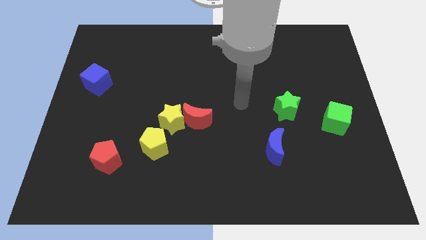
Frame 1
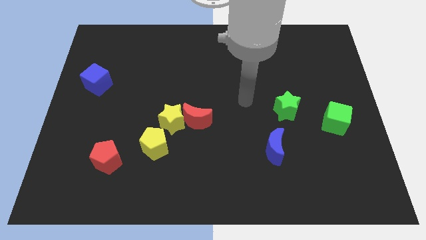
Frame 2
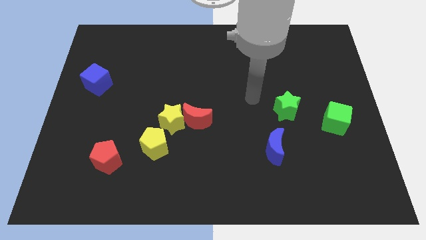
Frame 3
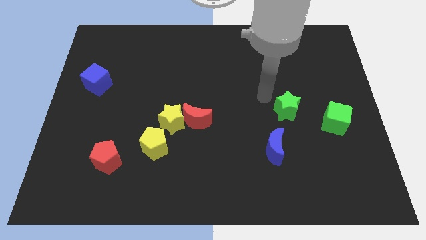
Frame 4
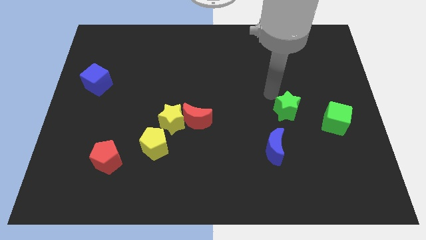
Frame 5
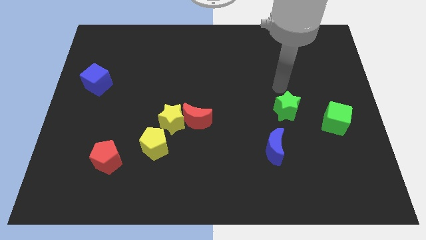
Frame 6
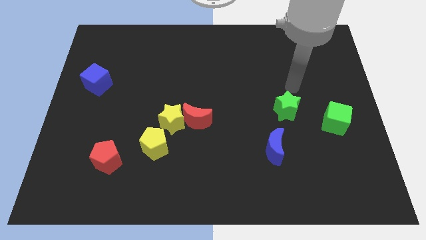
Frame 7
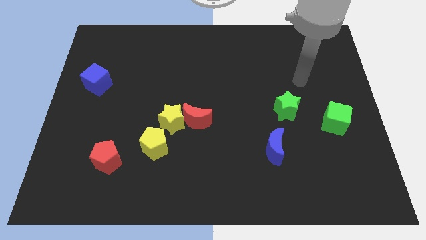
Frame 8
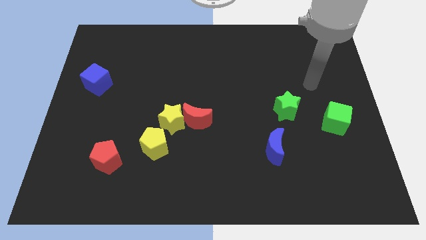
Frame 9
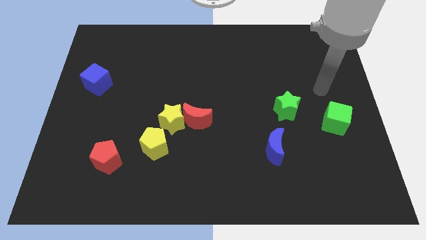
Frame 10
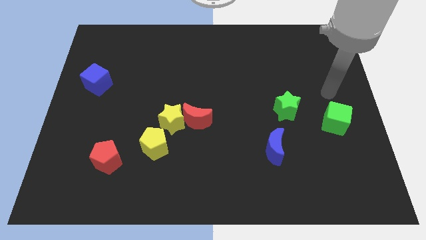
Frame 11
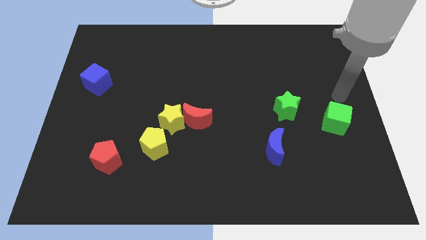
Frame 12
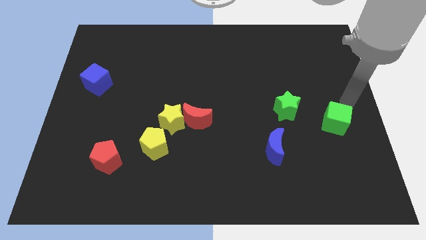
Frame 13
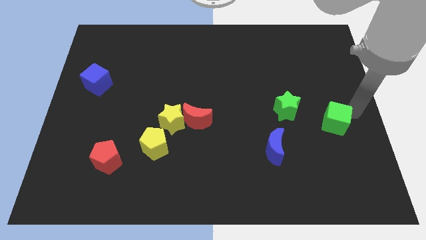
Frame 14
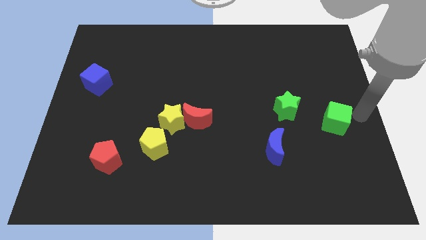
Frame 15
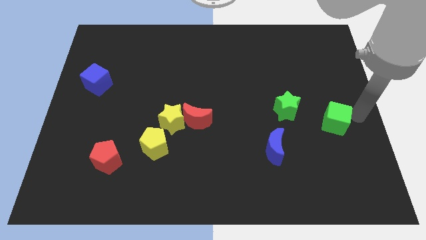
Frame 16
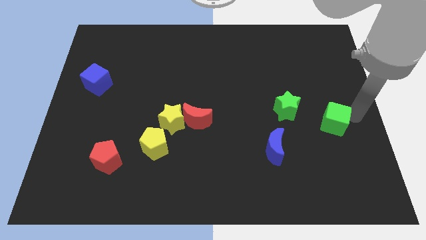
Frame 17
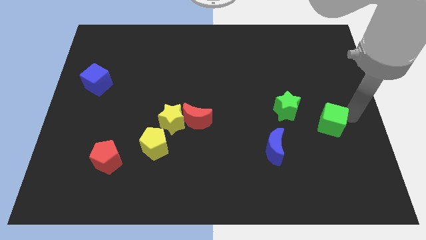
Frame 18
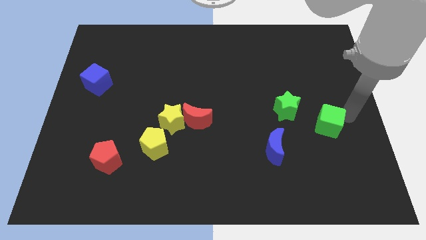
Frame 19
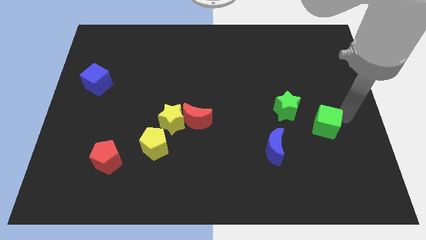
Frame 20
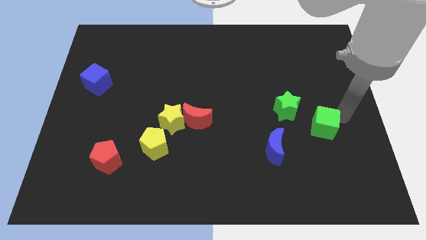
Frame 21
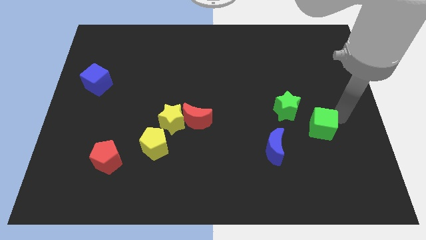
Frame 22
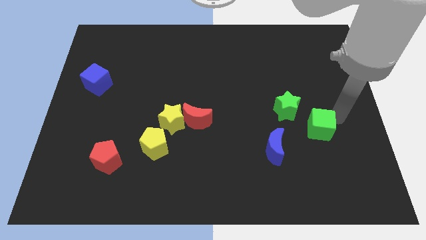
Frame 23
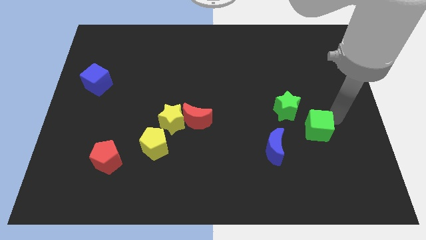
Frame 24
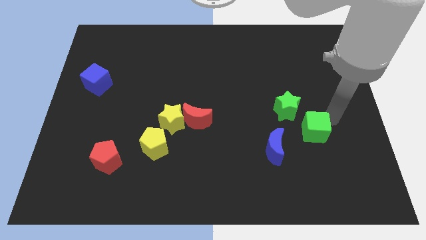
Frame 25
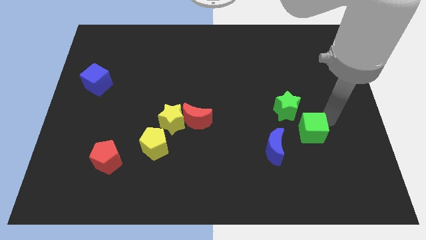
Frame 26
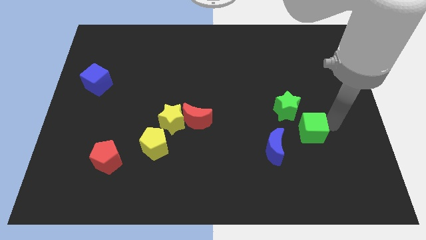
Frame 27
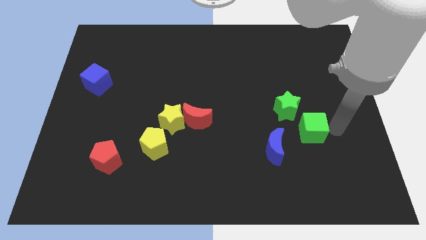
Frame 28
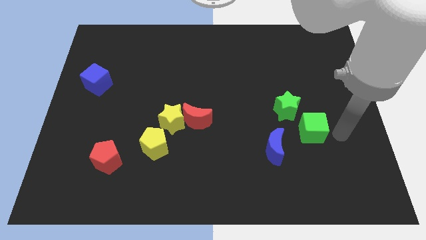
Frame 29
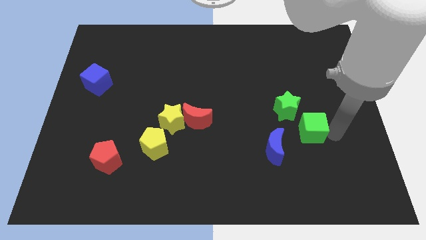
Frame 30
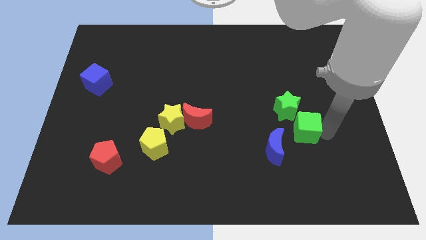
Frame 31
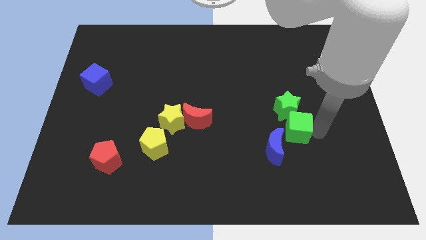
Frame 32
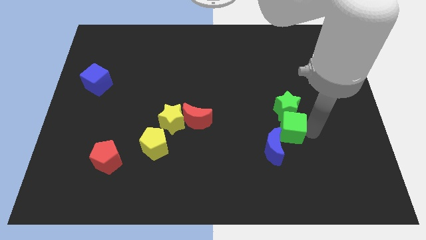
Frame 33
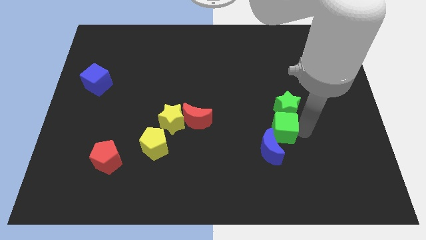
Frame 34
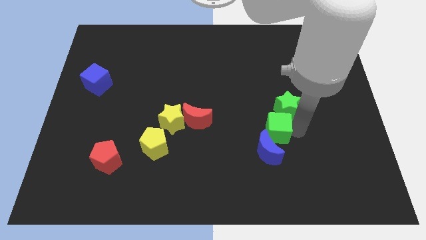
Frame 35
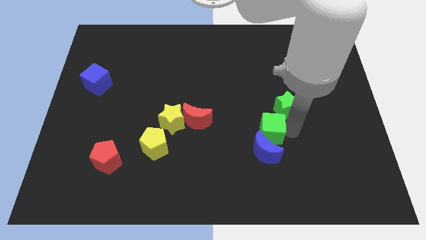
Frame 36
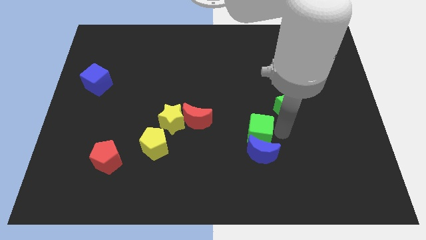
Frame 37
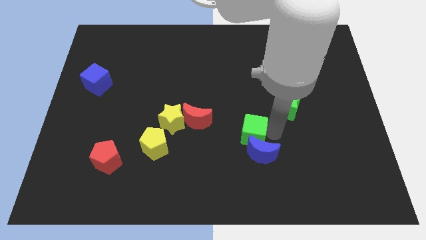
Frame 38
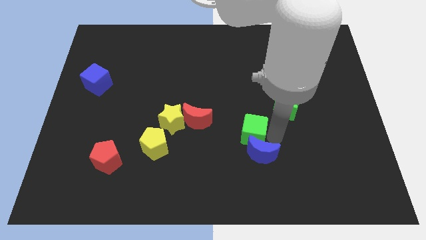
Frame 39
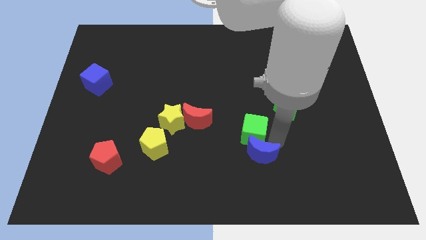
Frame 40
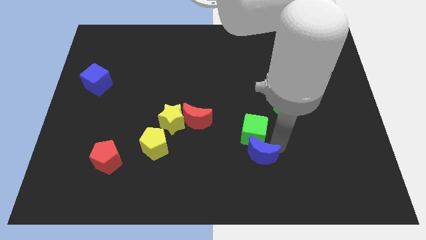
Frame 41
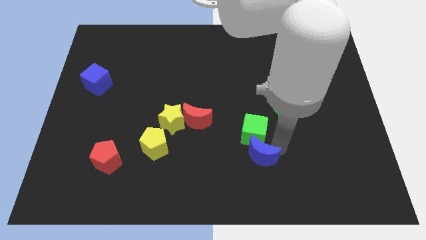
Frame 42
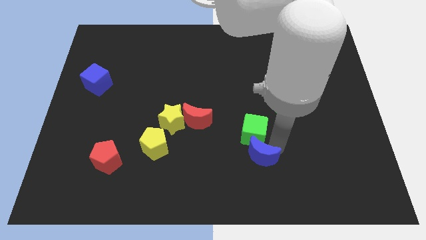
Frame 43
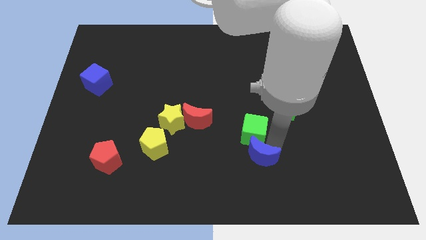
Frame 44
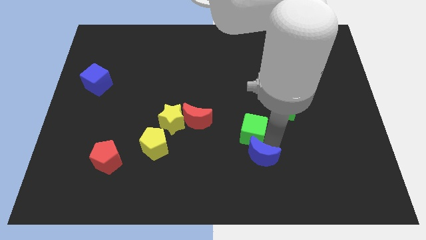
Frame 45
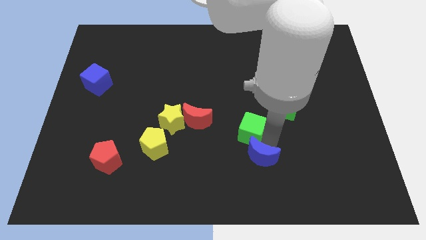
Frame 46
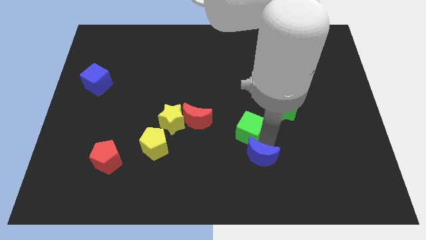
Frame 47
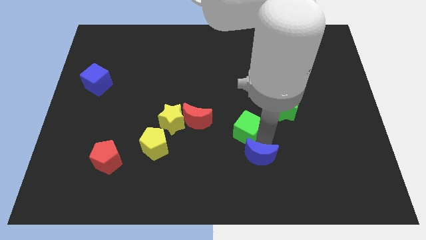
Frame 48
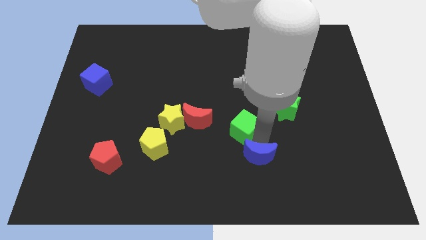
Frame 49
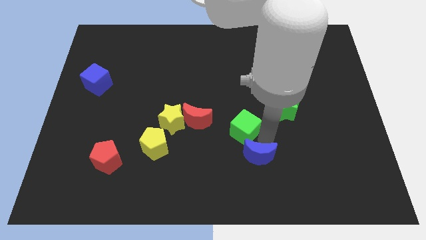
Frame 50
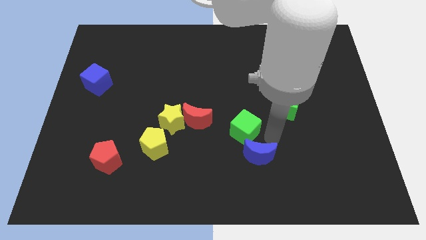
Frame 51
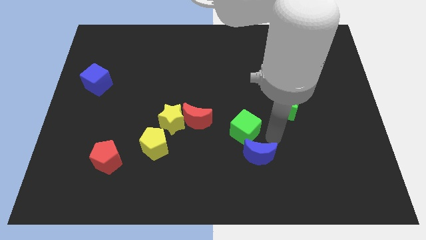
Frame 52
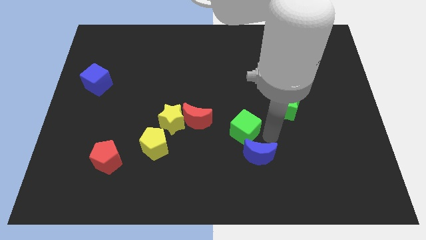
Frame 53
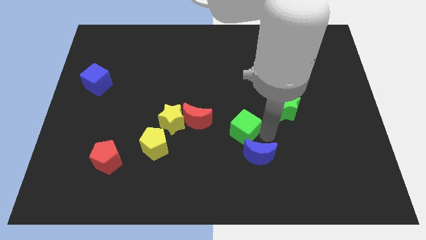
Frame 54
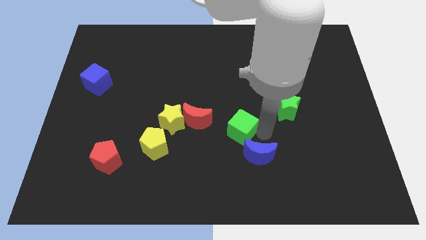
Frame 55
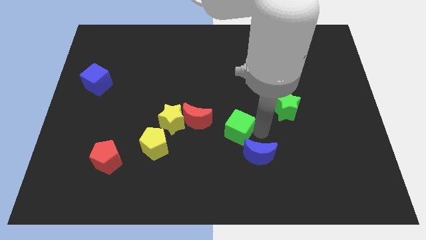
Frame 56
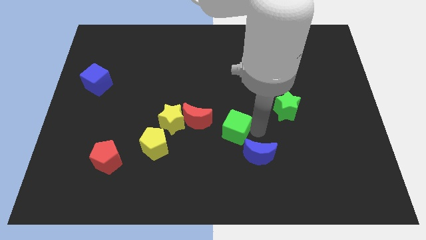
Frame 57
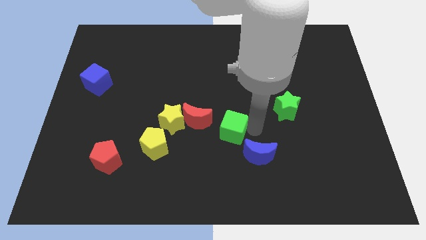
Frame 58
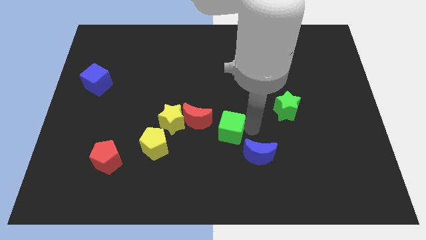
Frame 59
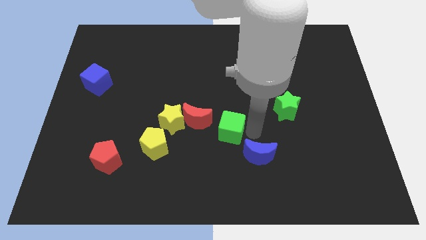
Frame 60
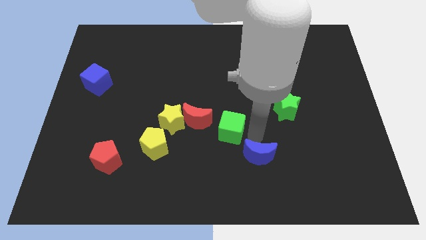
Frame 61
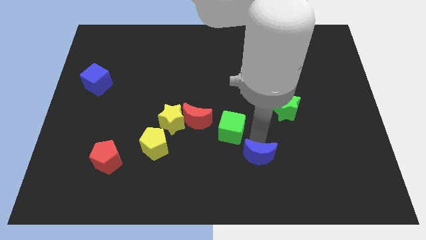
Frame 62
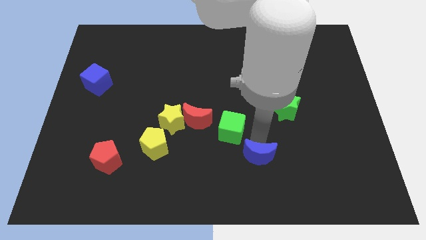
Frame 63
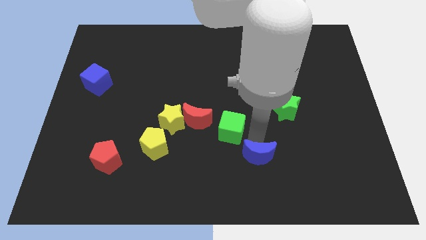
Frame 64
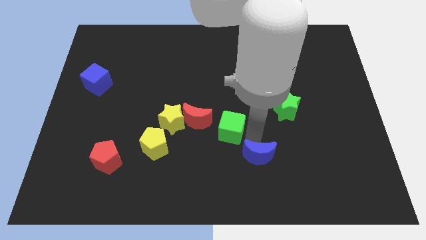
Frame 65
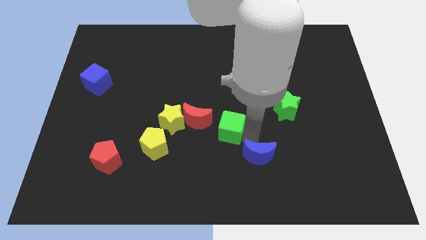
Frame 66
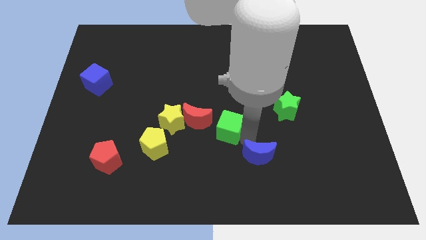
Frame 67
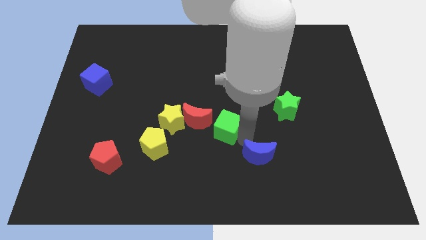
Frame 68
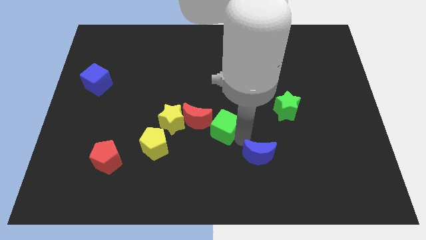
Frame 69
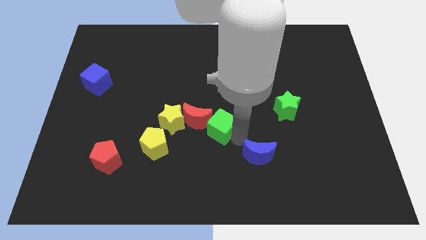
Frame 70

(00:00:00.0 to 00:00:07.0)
move the green cube towards the red moon

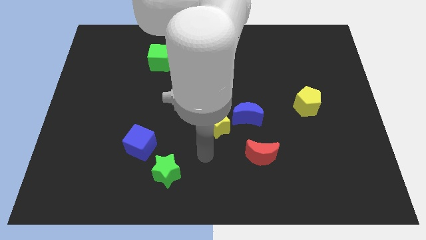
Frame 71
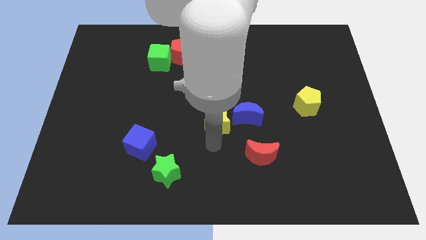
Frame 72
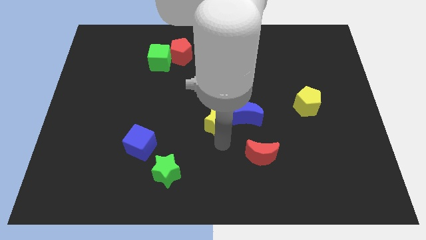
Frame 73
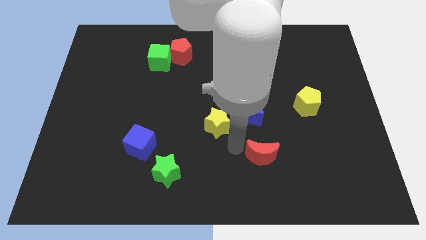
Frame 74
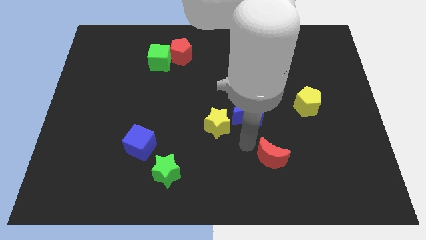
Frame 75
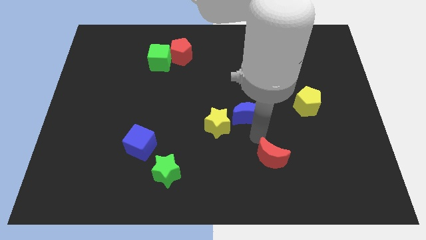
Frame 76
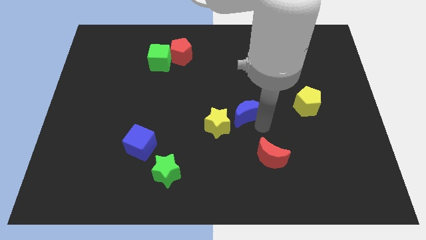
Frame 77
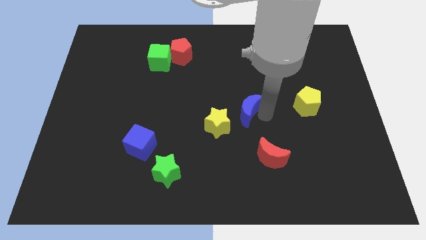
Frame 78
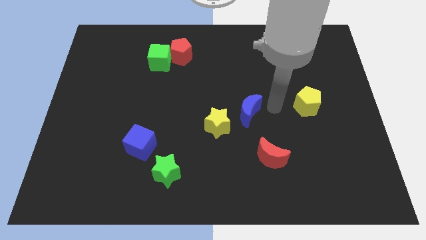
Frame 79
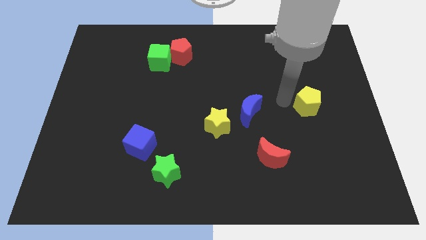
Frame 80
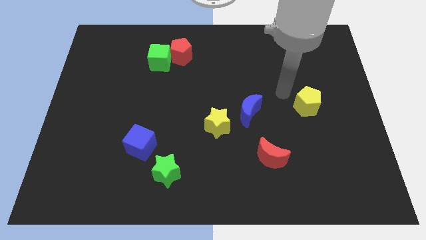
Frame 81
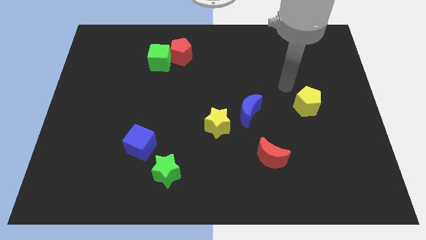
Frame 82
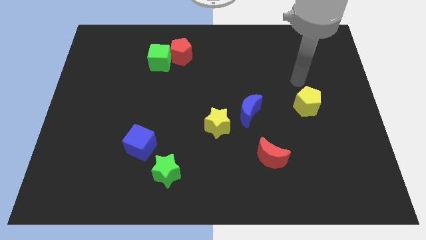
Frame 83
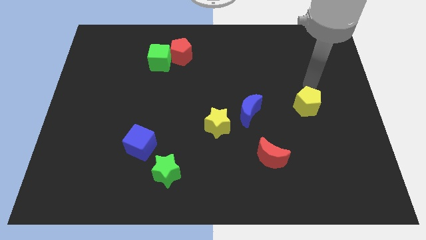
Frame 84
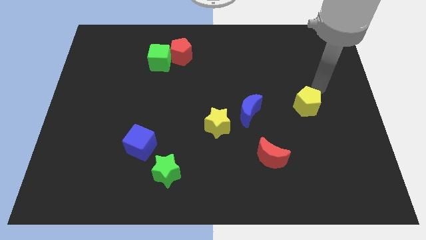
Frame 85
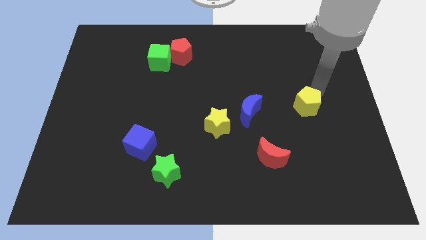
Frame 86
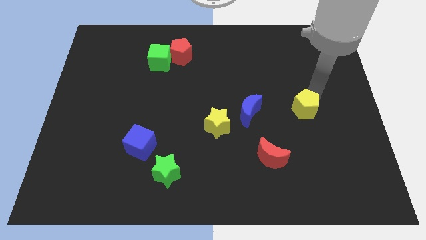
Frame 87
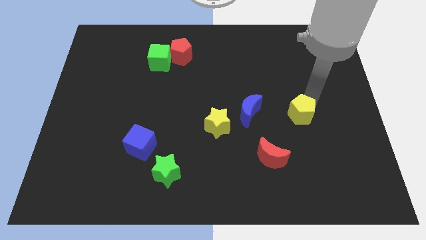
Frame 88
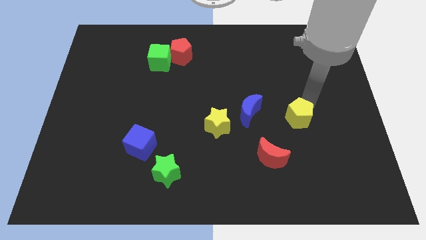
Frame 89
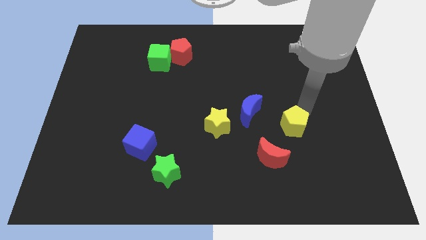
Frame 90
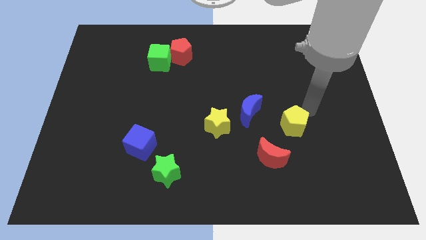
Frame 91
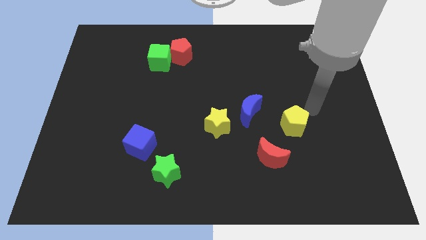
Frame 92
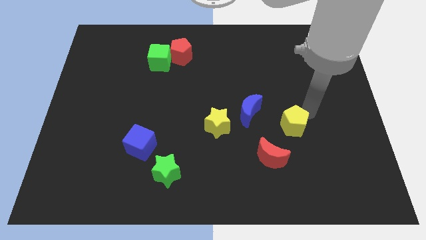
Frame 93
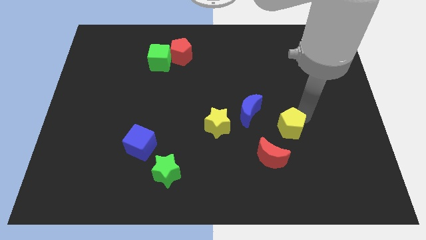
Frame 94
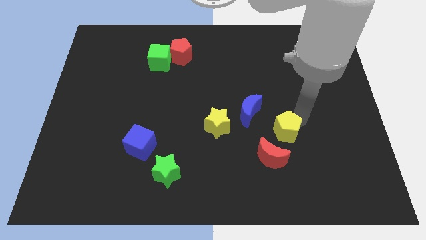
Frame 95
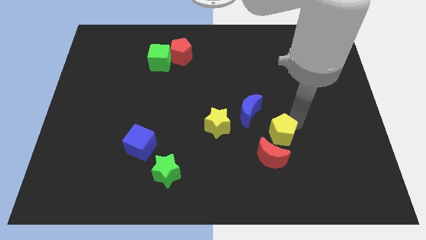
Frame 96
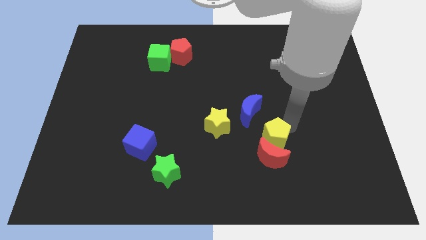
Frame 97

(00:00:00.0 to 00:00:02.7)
move the yellow pentagon to the red moon
